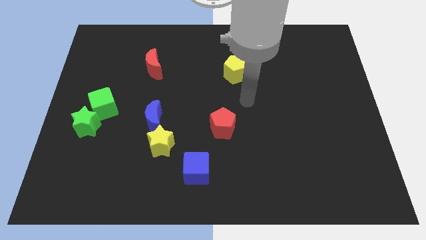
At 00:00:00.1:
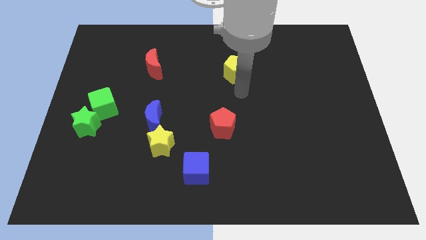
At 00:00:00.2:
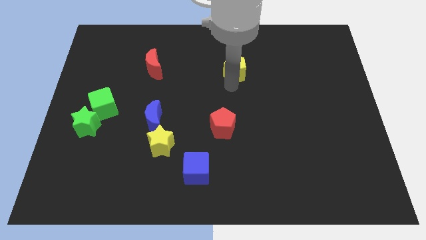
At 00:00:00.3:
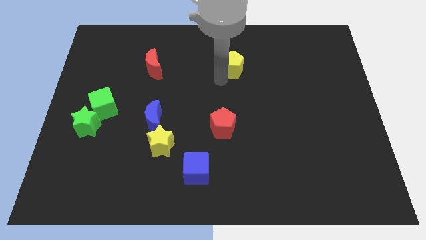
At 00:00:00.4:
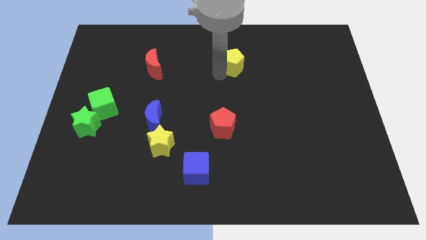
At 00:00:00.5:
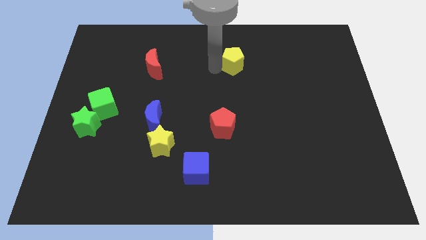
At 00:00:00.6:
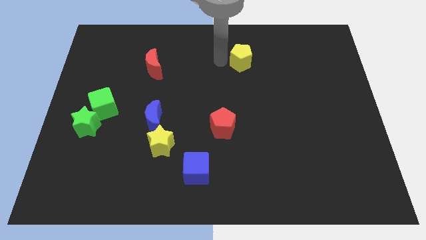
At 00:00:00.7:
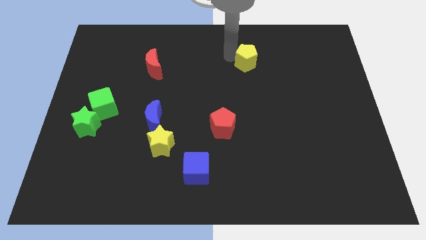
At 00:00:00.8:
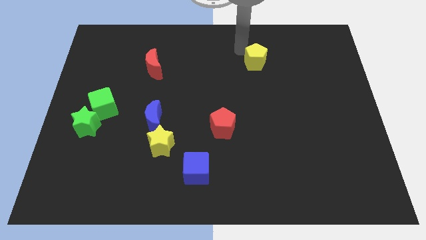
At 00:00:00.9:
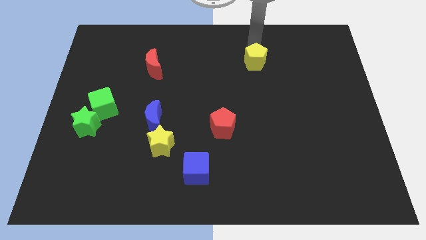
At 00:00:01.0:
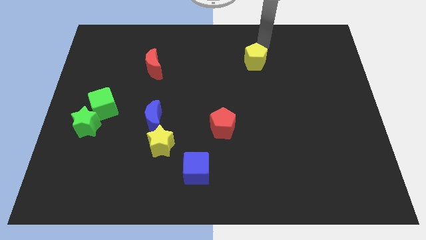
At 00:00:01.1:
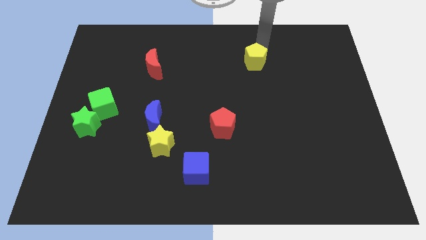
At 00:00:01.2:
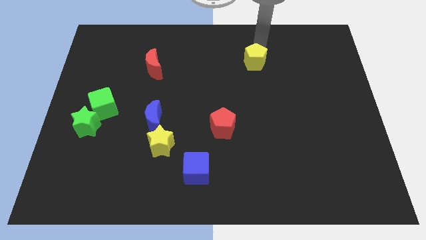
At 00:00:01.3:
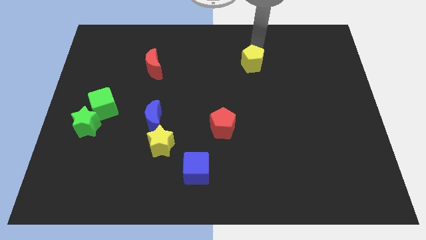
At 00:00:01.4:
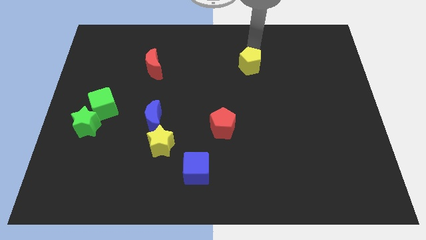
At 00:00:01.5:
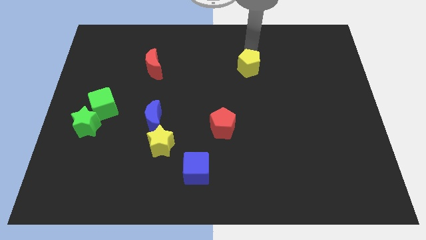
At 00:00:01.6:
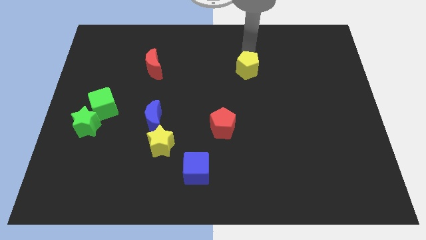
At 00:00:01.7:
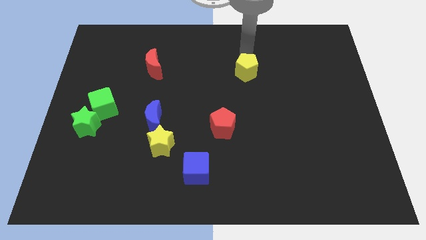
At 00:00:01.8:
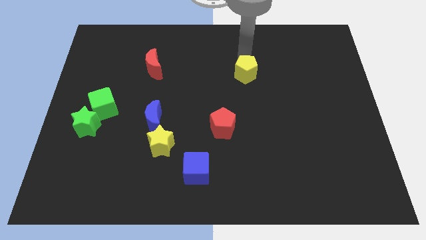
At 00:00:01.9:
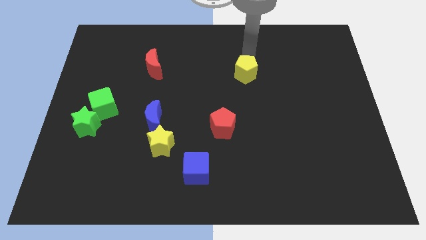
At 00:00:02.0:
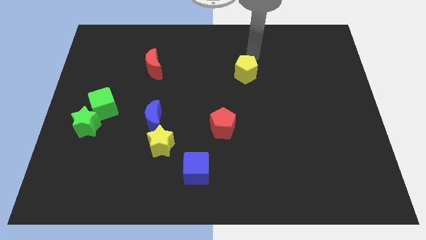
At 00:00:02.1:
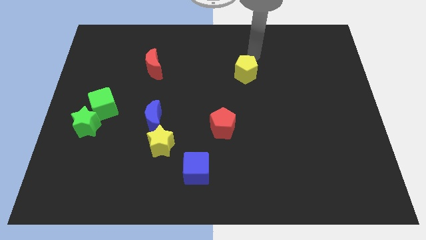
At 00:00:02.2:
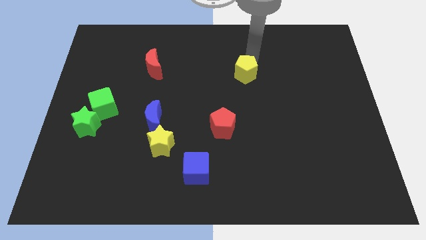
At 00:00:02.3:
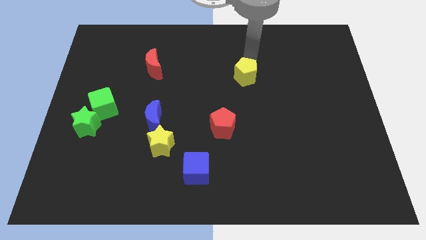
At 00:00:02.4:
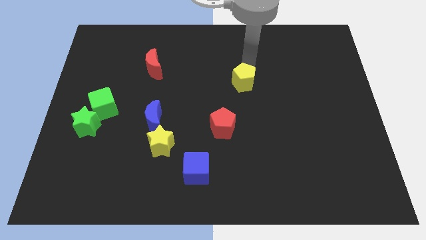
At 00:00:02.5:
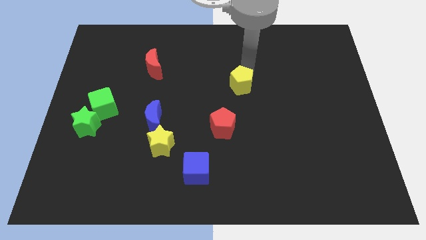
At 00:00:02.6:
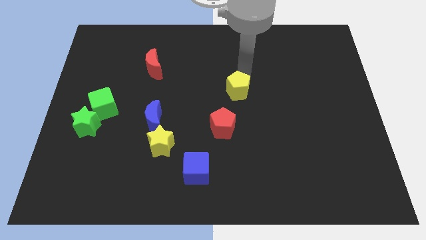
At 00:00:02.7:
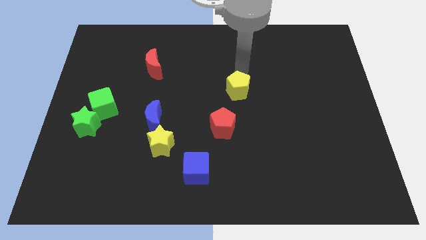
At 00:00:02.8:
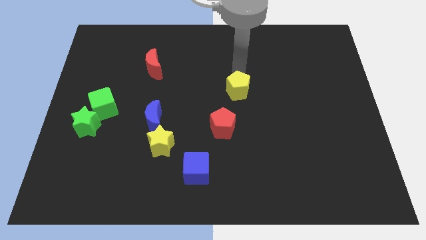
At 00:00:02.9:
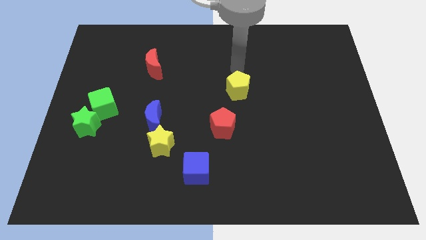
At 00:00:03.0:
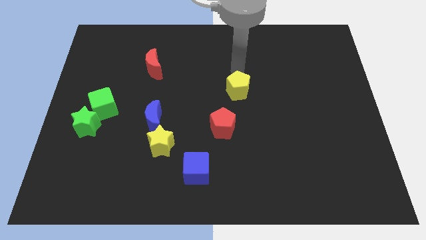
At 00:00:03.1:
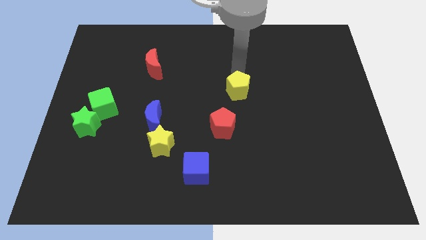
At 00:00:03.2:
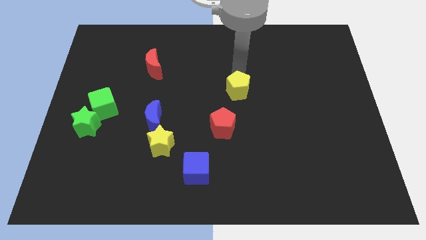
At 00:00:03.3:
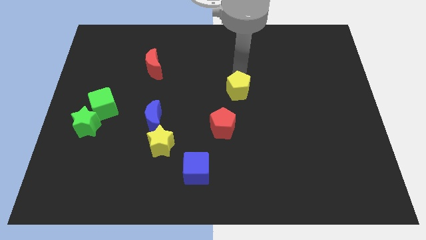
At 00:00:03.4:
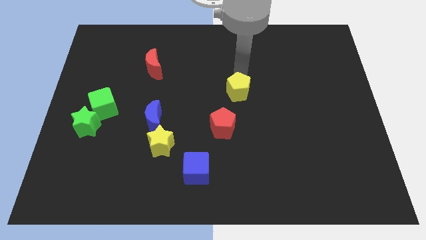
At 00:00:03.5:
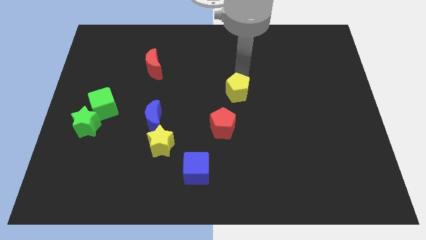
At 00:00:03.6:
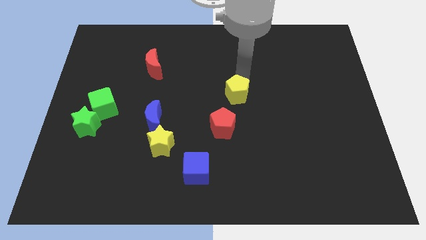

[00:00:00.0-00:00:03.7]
move the yellow pentagon downwards somewhat

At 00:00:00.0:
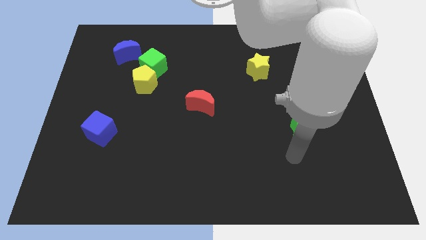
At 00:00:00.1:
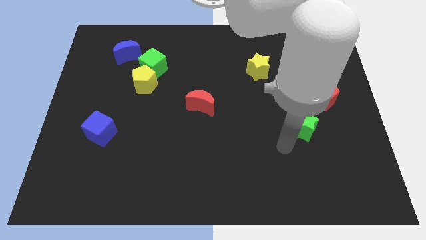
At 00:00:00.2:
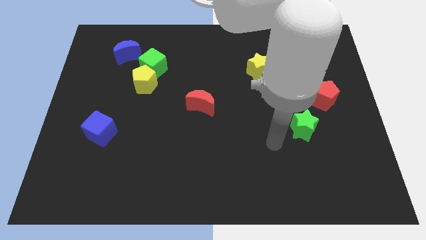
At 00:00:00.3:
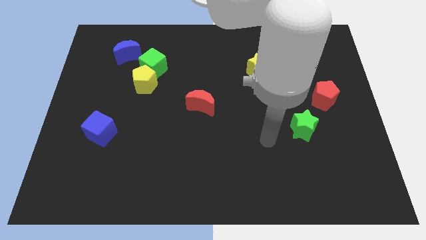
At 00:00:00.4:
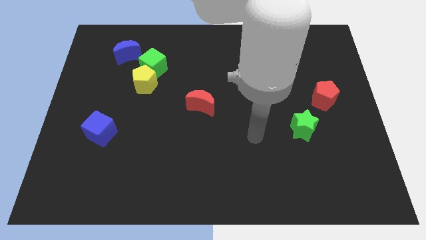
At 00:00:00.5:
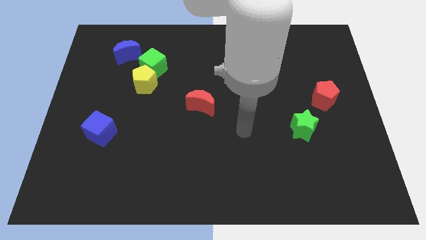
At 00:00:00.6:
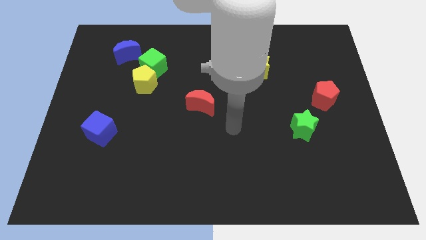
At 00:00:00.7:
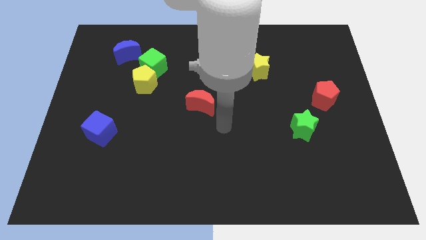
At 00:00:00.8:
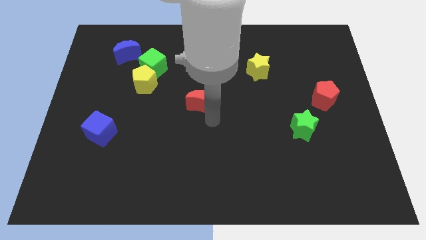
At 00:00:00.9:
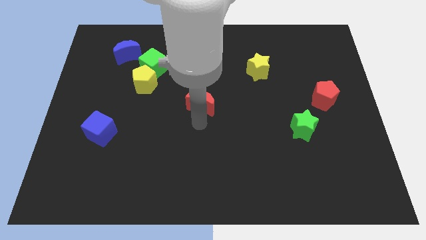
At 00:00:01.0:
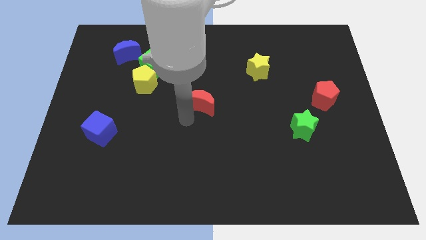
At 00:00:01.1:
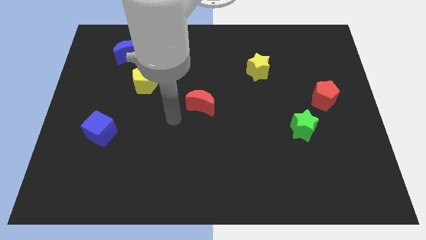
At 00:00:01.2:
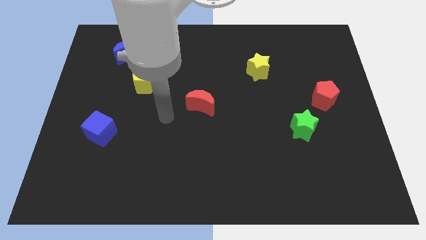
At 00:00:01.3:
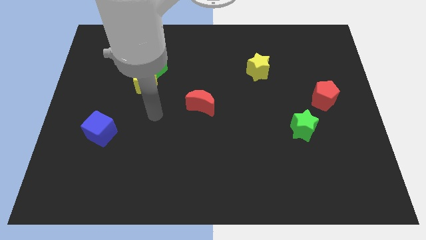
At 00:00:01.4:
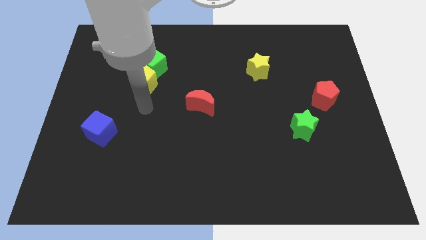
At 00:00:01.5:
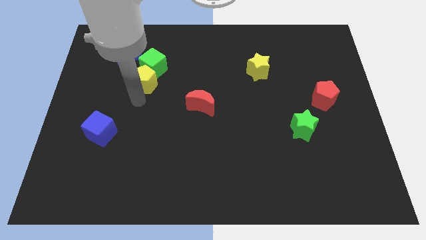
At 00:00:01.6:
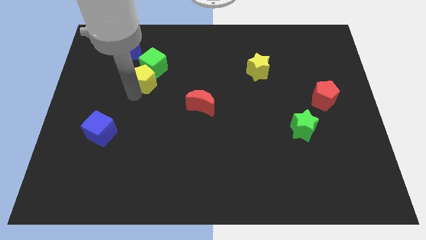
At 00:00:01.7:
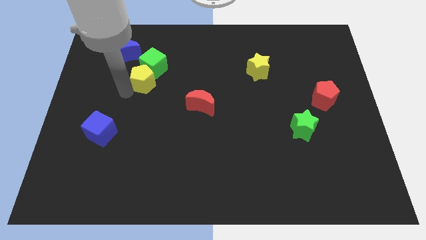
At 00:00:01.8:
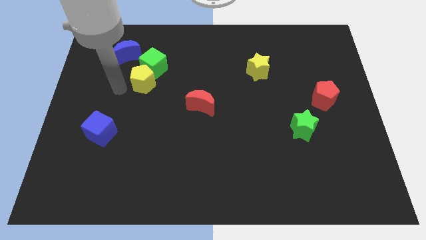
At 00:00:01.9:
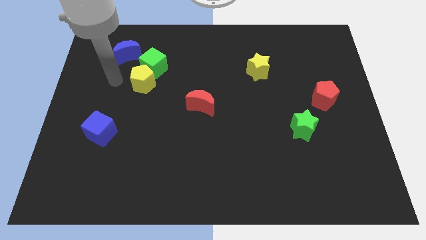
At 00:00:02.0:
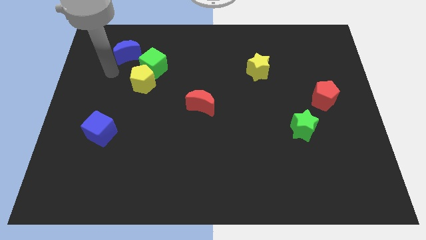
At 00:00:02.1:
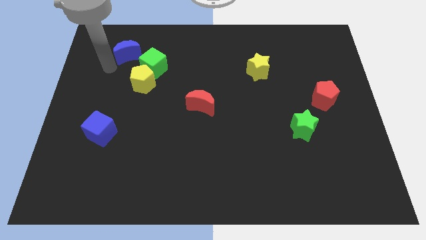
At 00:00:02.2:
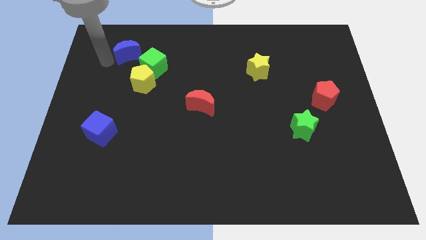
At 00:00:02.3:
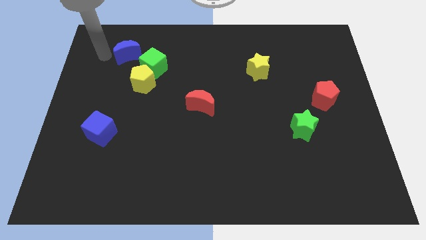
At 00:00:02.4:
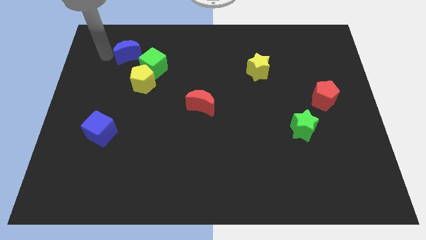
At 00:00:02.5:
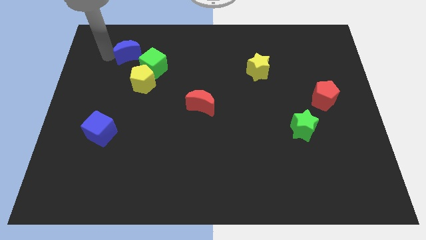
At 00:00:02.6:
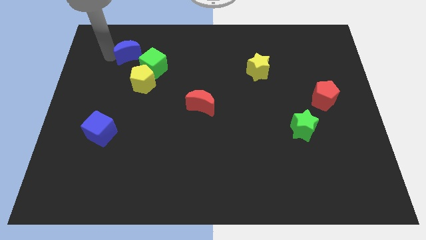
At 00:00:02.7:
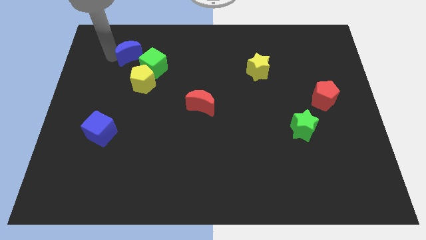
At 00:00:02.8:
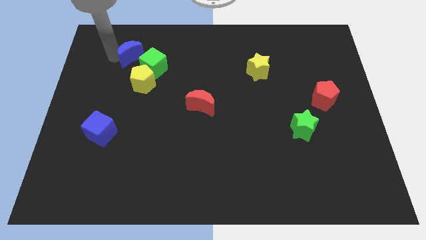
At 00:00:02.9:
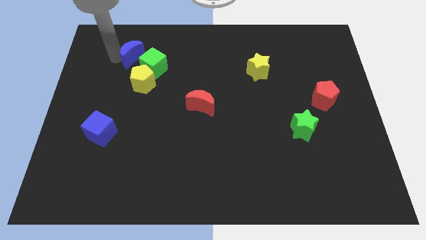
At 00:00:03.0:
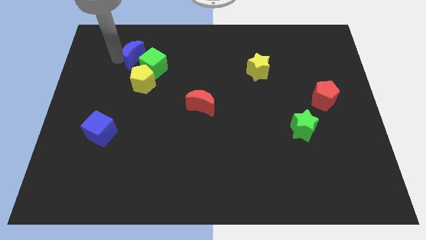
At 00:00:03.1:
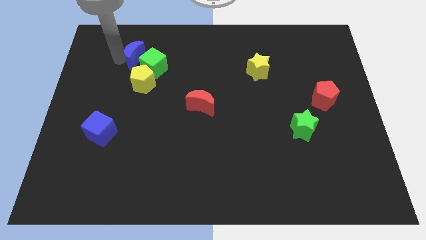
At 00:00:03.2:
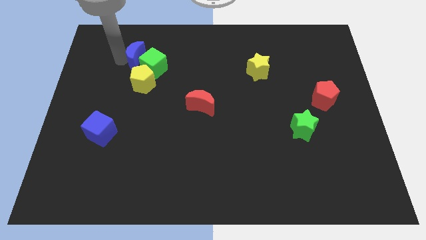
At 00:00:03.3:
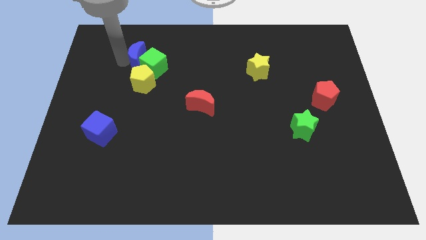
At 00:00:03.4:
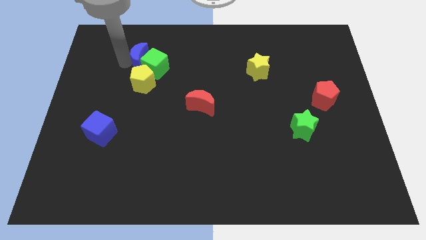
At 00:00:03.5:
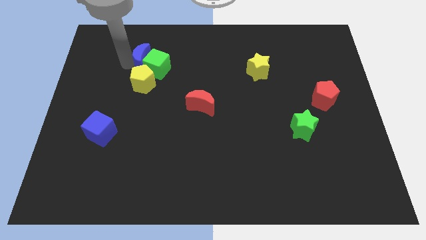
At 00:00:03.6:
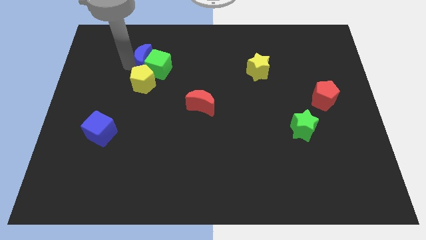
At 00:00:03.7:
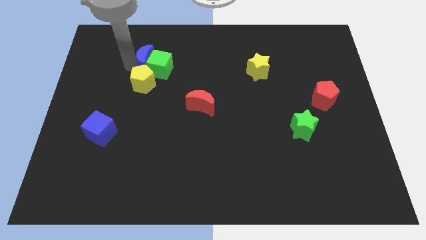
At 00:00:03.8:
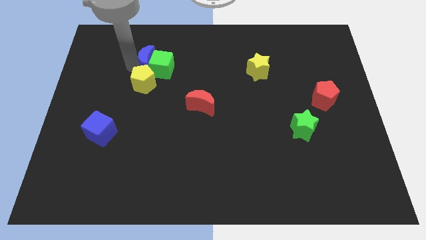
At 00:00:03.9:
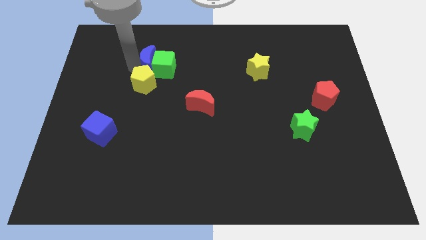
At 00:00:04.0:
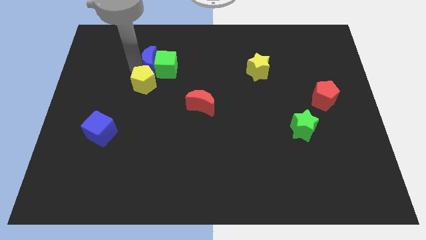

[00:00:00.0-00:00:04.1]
move the blue moon slightly downwards and right
